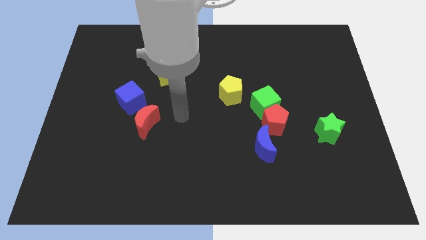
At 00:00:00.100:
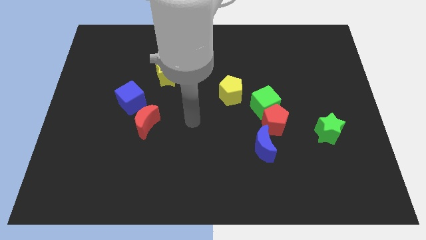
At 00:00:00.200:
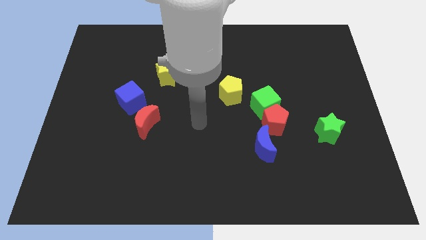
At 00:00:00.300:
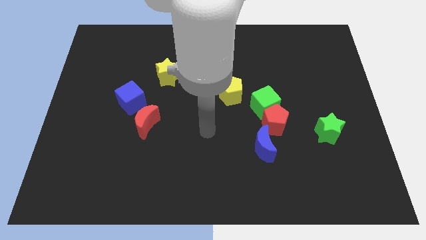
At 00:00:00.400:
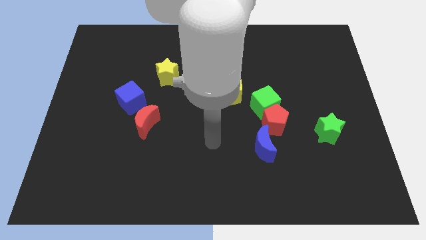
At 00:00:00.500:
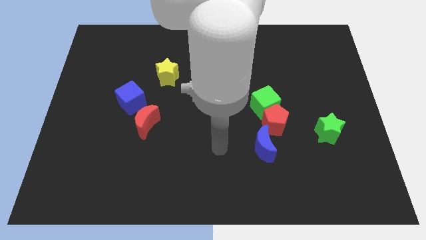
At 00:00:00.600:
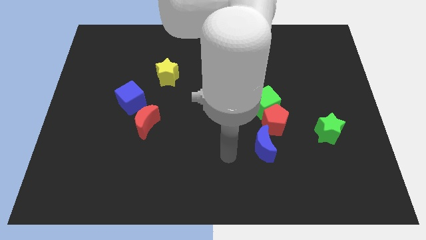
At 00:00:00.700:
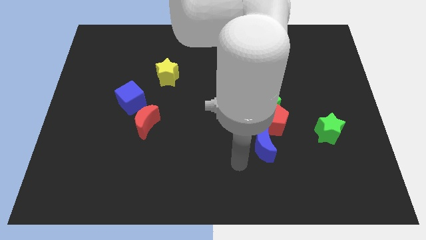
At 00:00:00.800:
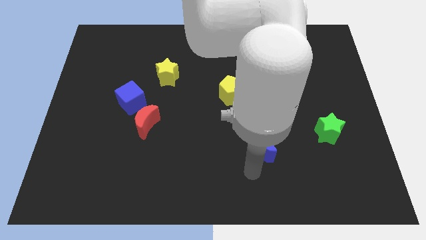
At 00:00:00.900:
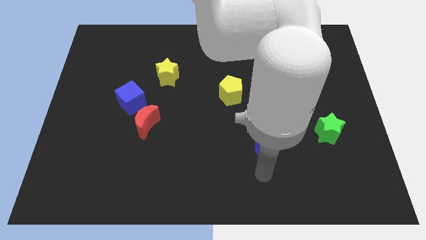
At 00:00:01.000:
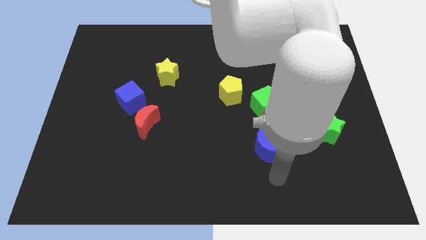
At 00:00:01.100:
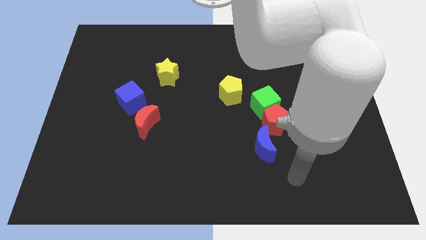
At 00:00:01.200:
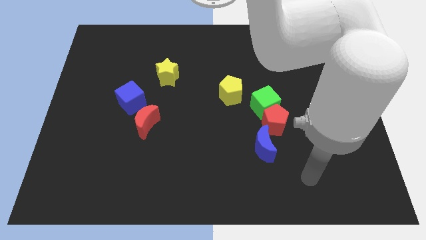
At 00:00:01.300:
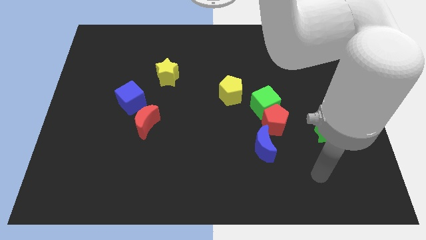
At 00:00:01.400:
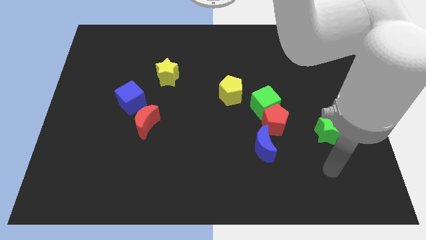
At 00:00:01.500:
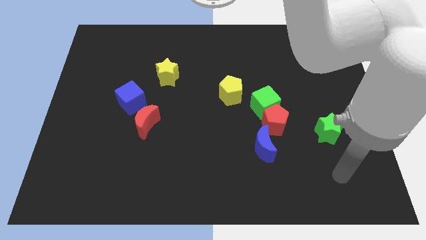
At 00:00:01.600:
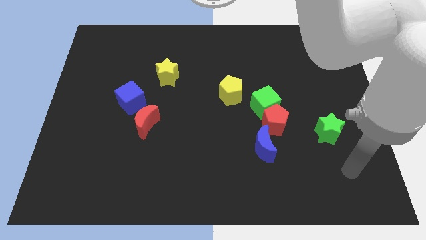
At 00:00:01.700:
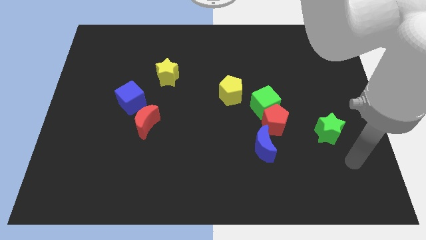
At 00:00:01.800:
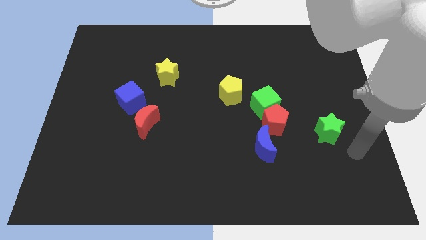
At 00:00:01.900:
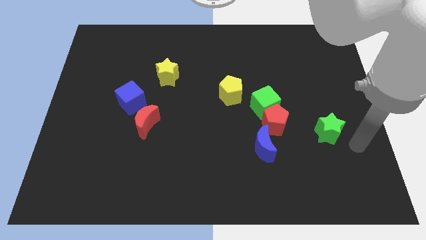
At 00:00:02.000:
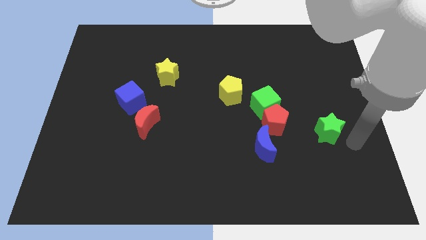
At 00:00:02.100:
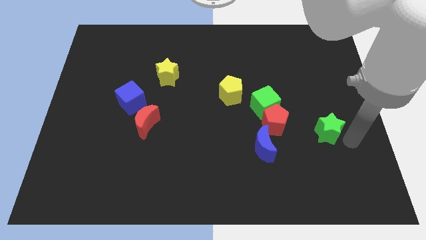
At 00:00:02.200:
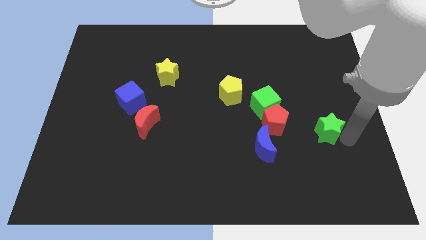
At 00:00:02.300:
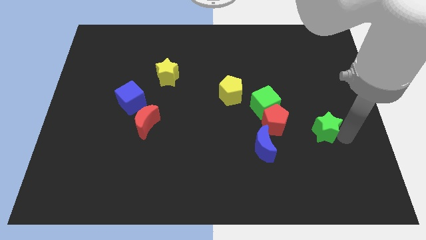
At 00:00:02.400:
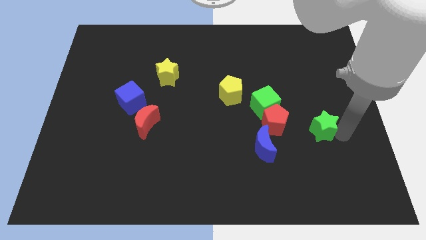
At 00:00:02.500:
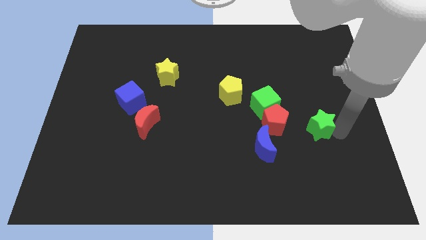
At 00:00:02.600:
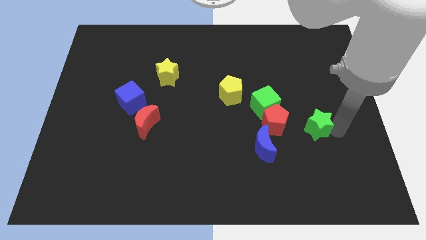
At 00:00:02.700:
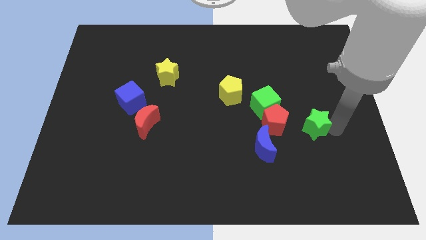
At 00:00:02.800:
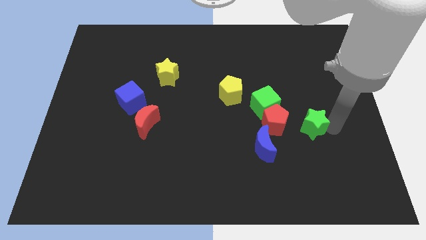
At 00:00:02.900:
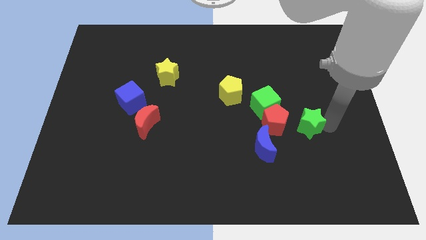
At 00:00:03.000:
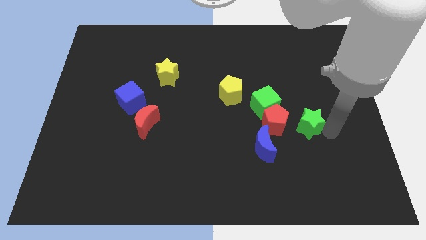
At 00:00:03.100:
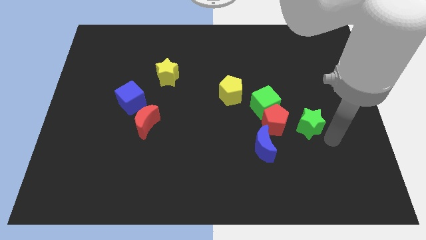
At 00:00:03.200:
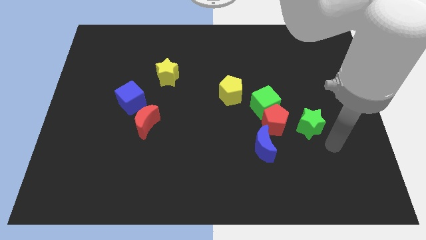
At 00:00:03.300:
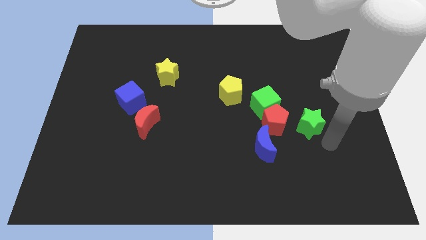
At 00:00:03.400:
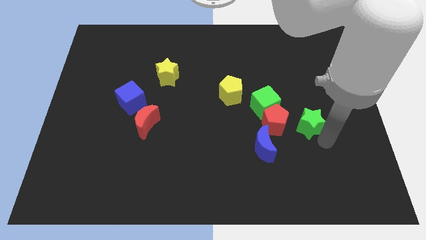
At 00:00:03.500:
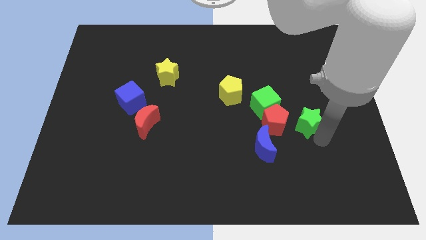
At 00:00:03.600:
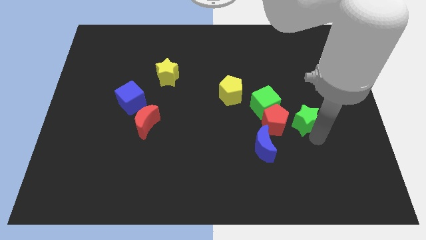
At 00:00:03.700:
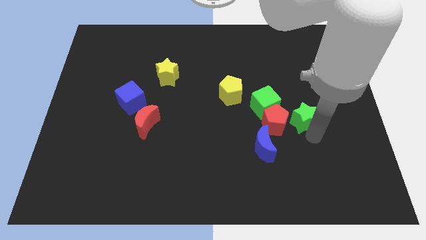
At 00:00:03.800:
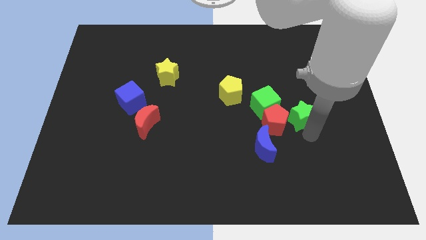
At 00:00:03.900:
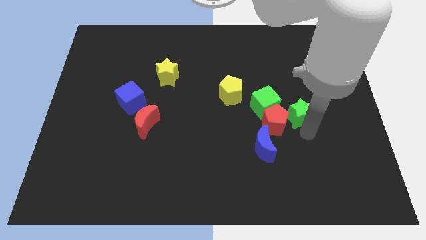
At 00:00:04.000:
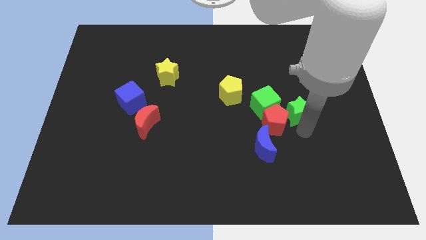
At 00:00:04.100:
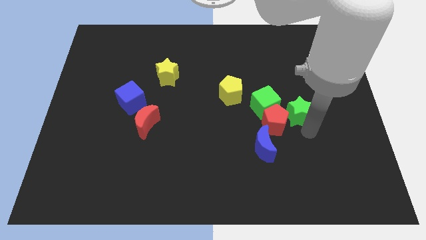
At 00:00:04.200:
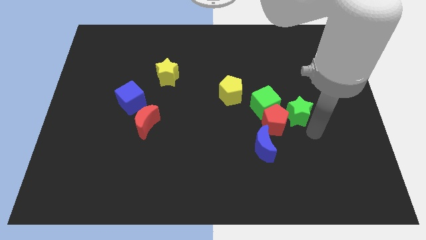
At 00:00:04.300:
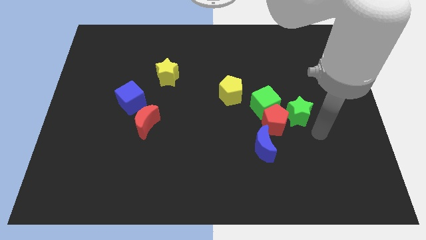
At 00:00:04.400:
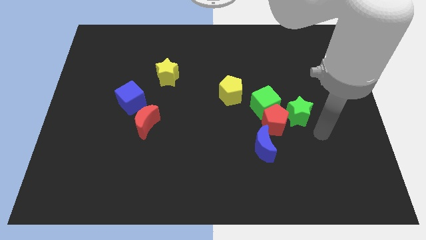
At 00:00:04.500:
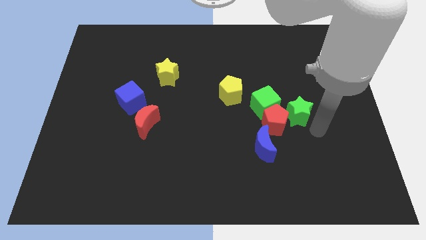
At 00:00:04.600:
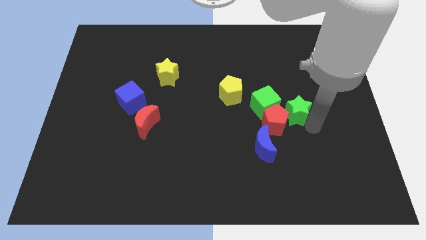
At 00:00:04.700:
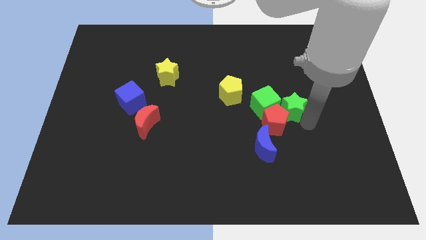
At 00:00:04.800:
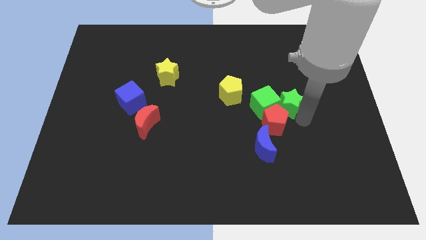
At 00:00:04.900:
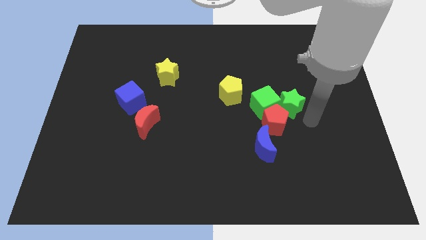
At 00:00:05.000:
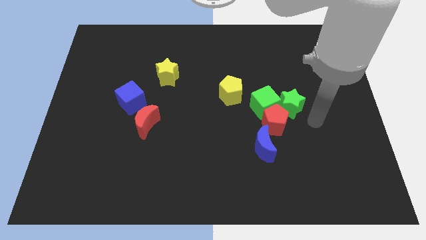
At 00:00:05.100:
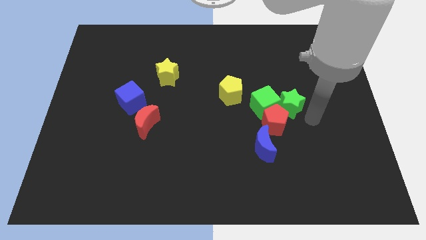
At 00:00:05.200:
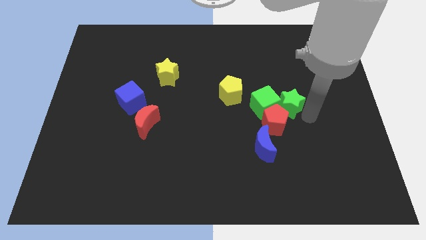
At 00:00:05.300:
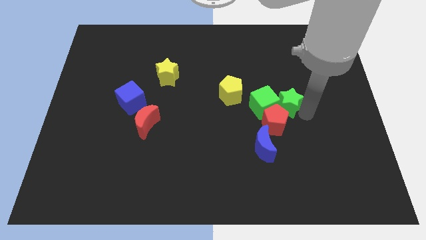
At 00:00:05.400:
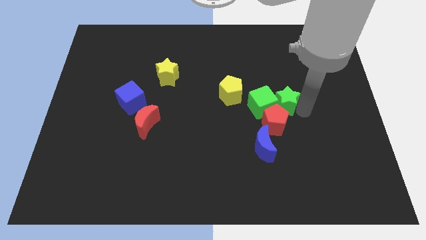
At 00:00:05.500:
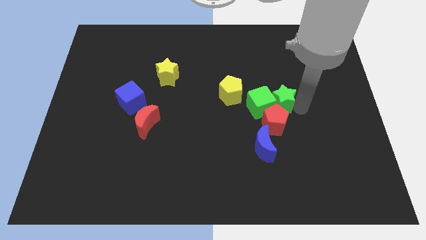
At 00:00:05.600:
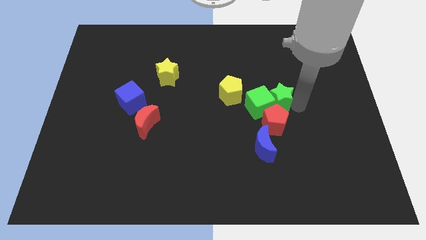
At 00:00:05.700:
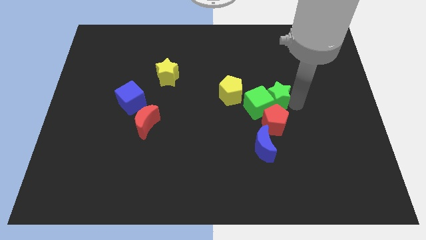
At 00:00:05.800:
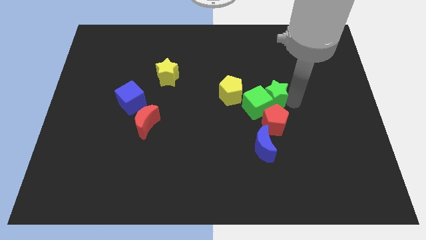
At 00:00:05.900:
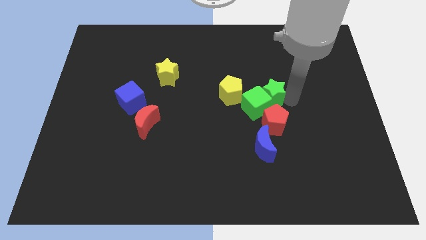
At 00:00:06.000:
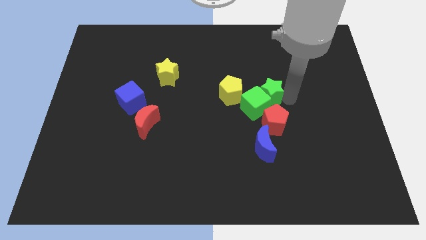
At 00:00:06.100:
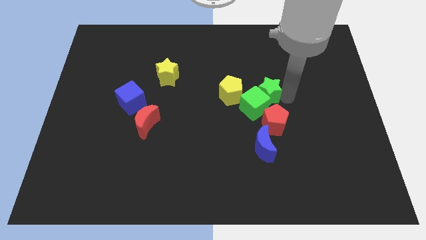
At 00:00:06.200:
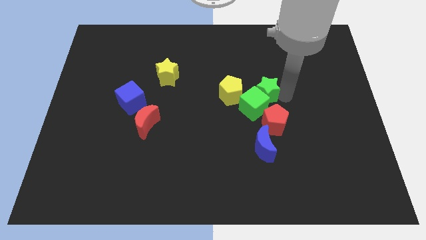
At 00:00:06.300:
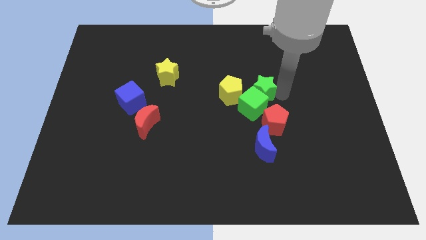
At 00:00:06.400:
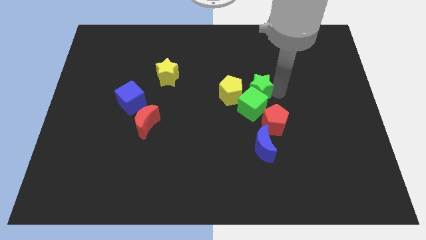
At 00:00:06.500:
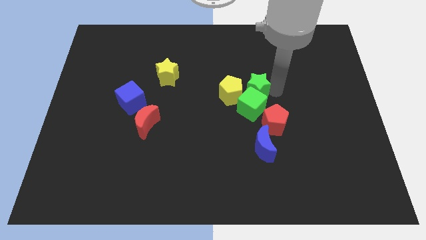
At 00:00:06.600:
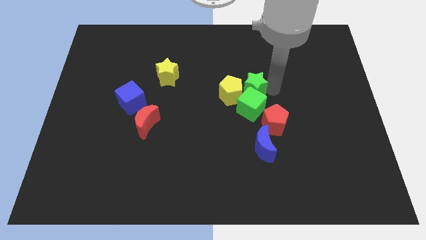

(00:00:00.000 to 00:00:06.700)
put the green star towards the yellow pentagon
